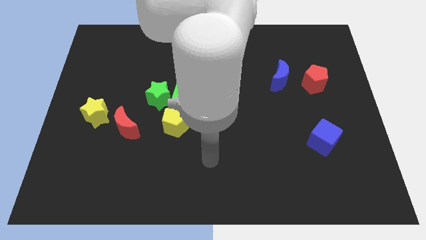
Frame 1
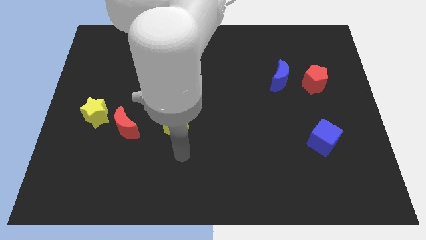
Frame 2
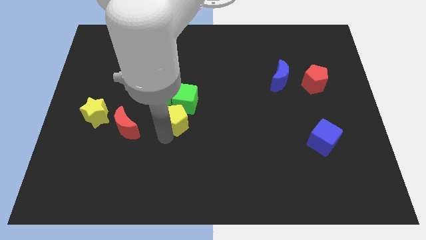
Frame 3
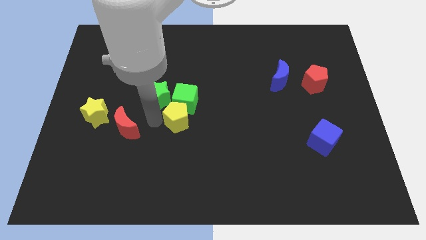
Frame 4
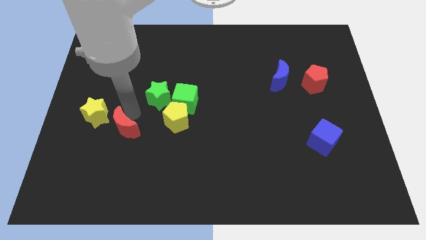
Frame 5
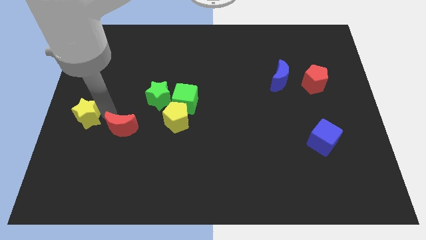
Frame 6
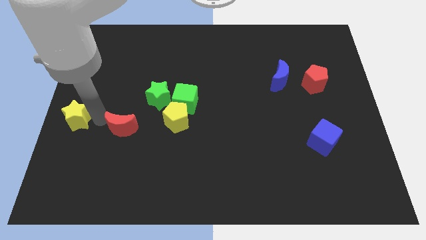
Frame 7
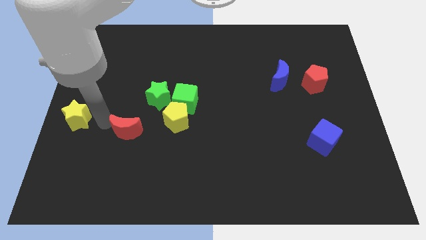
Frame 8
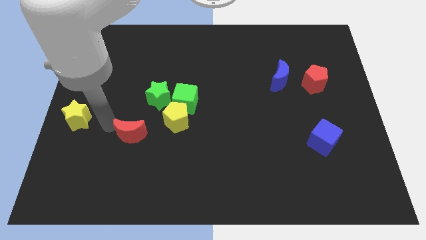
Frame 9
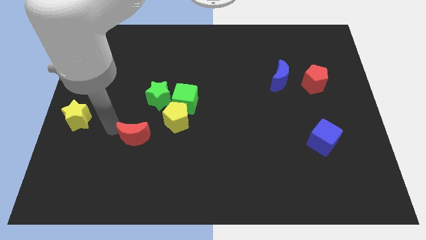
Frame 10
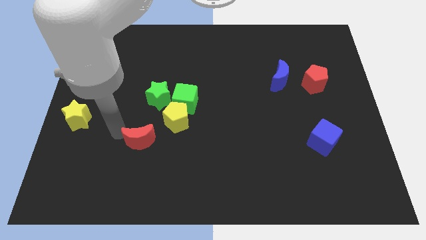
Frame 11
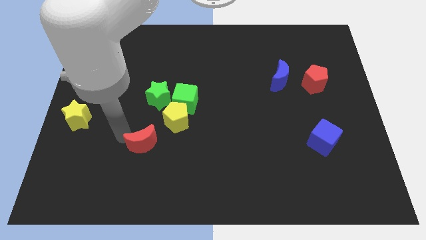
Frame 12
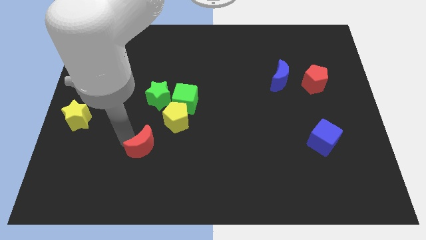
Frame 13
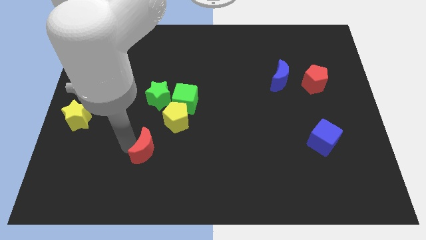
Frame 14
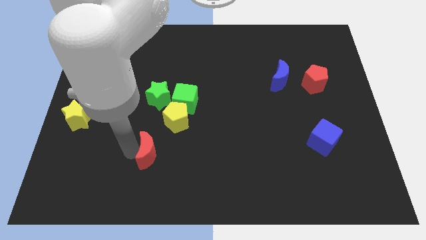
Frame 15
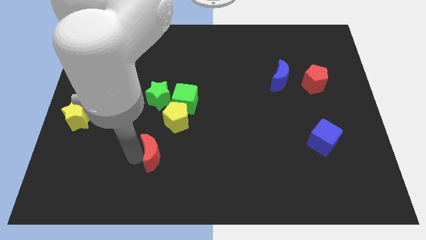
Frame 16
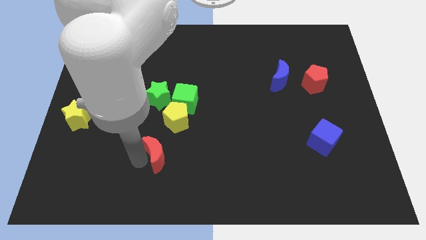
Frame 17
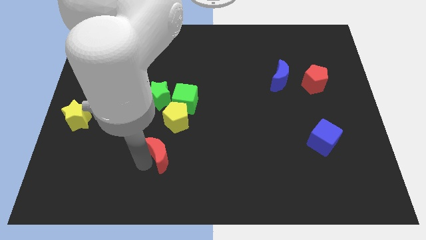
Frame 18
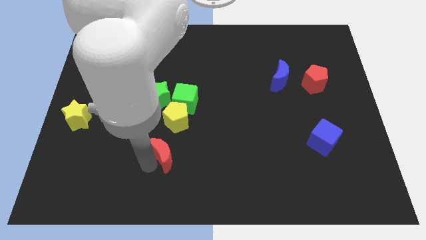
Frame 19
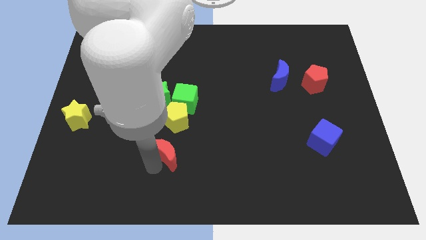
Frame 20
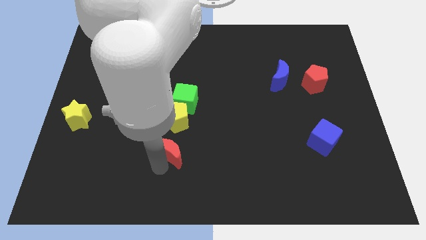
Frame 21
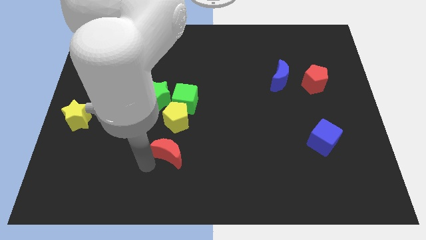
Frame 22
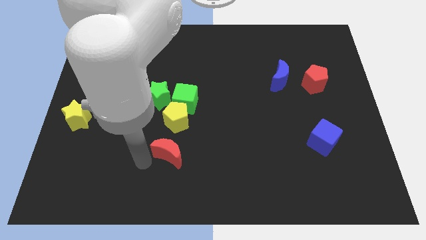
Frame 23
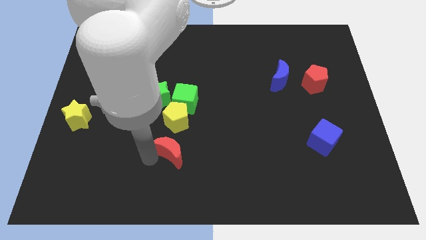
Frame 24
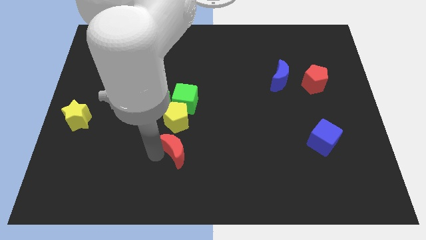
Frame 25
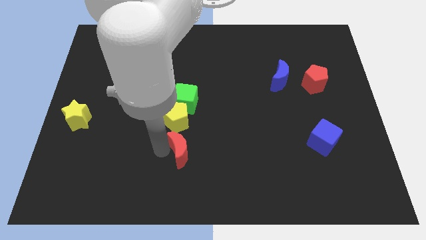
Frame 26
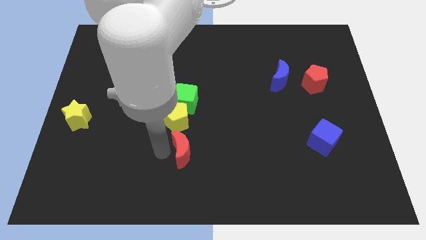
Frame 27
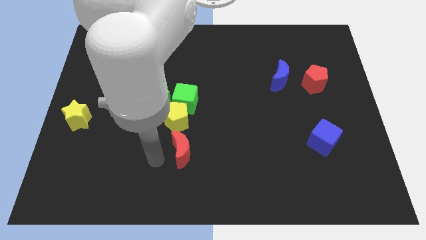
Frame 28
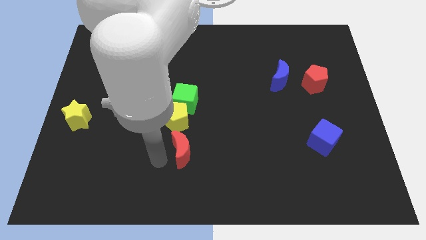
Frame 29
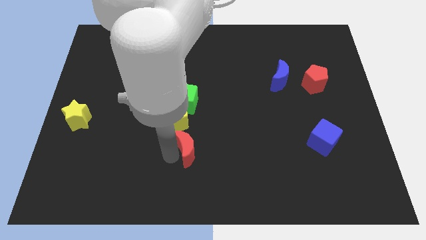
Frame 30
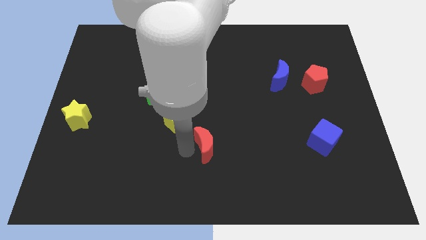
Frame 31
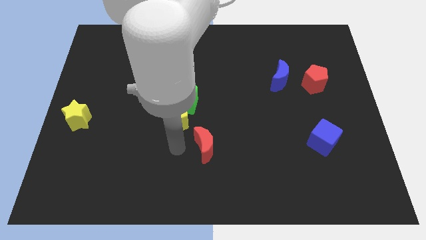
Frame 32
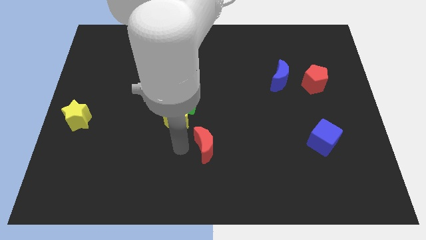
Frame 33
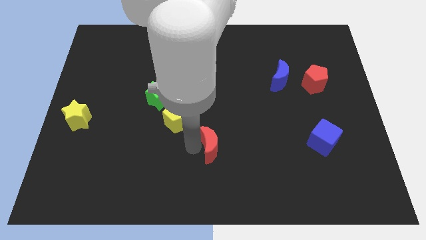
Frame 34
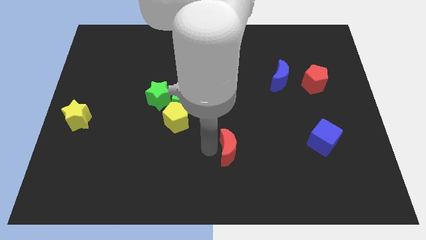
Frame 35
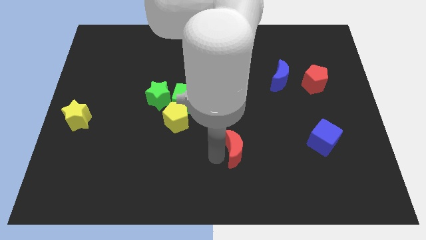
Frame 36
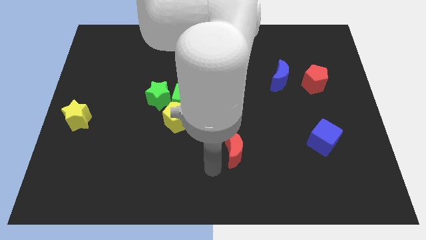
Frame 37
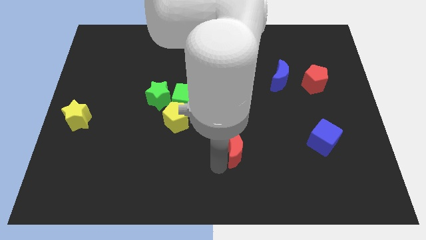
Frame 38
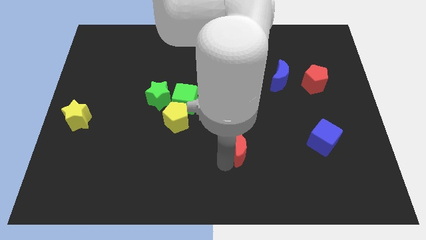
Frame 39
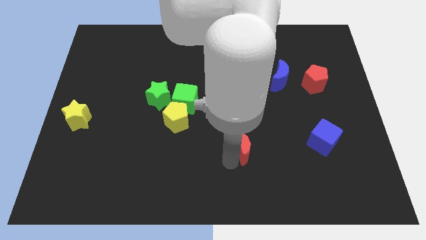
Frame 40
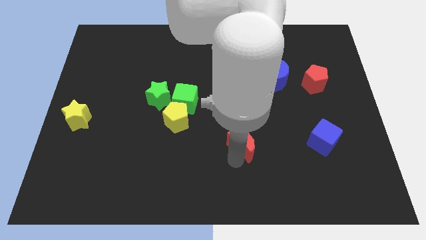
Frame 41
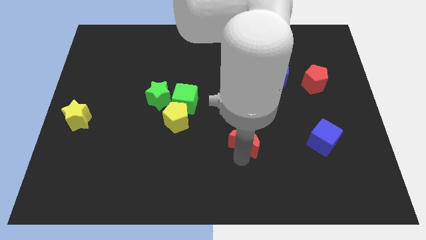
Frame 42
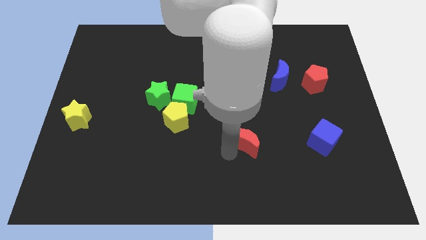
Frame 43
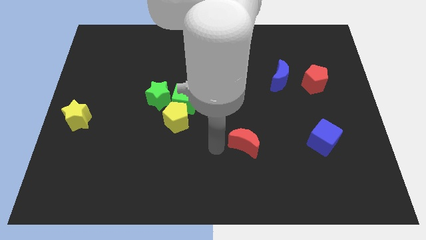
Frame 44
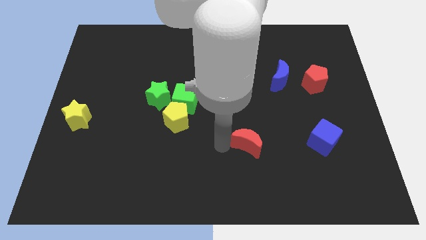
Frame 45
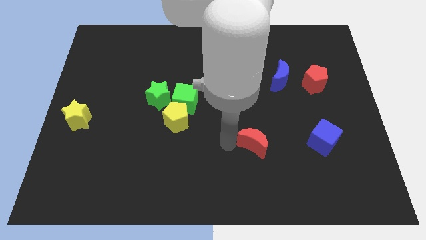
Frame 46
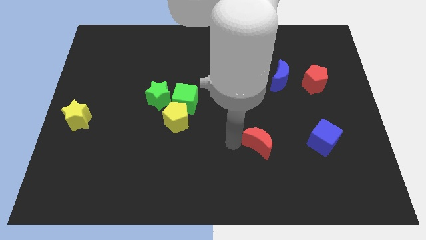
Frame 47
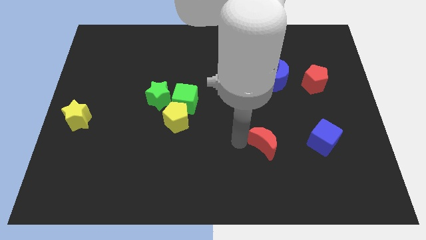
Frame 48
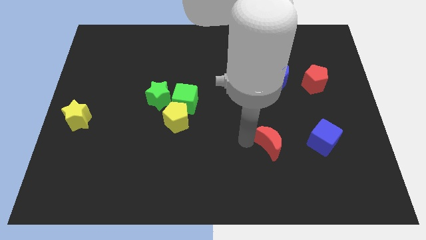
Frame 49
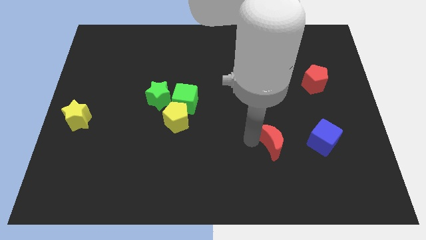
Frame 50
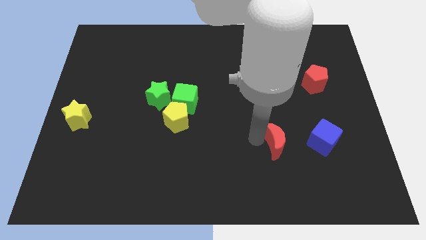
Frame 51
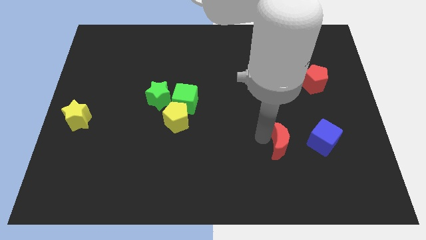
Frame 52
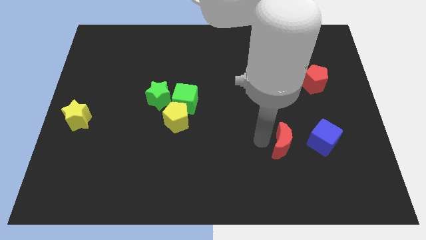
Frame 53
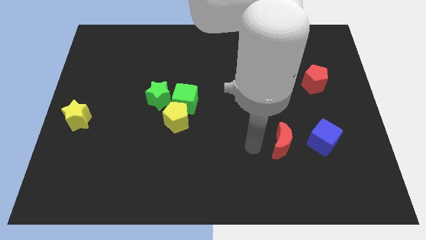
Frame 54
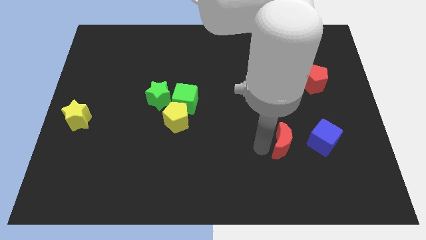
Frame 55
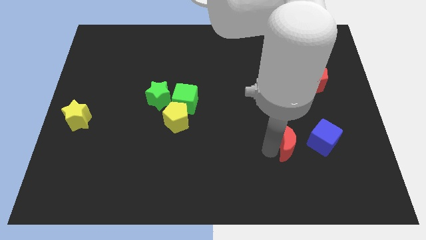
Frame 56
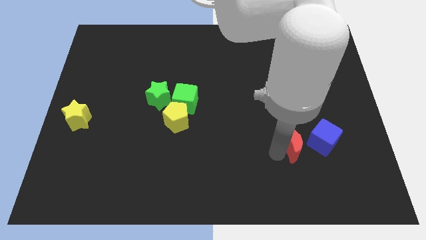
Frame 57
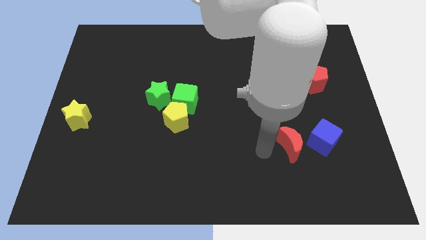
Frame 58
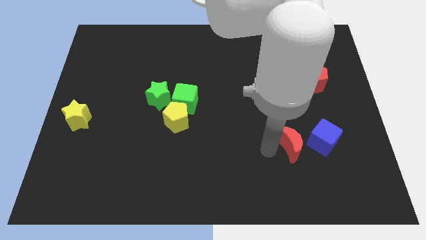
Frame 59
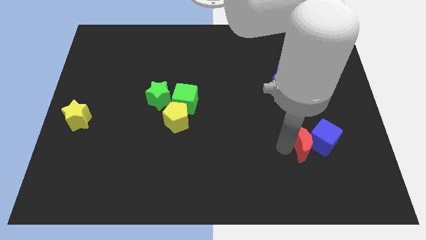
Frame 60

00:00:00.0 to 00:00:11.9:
put the red moon close to the blue cube

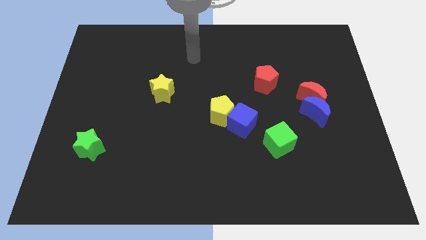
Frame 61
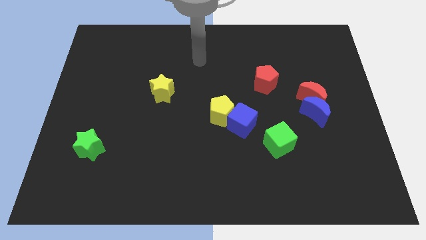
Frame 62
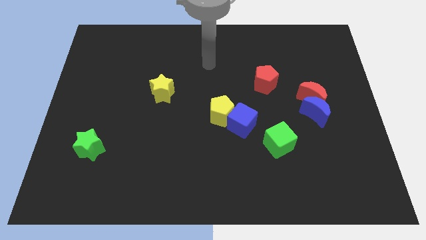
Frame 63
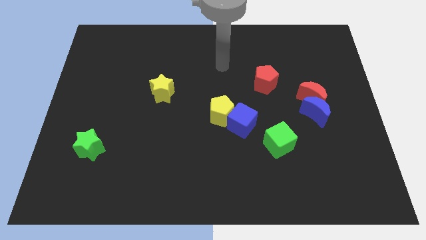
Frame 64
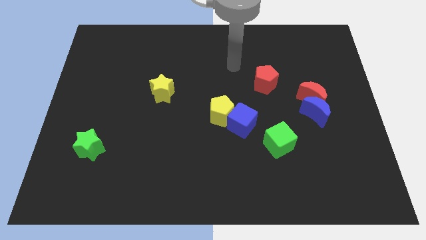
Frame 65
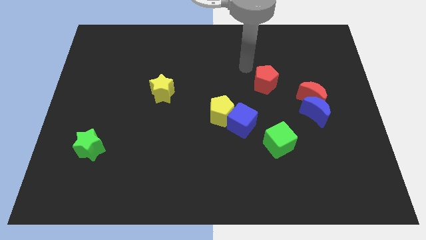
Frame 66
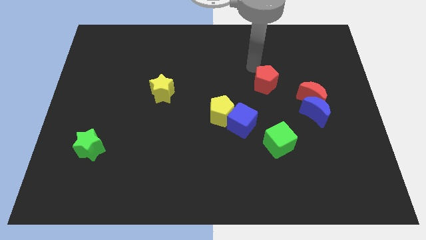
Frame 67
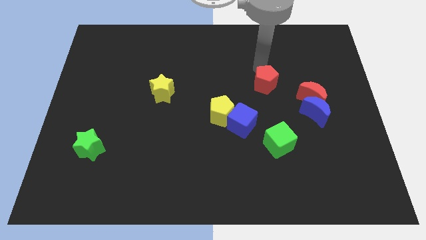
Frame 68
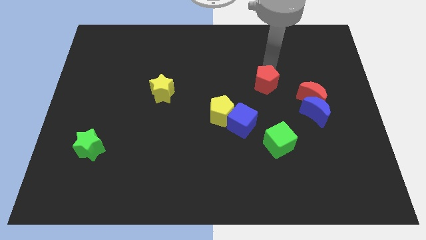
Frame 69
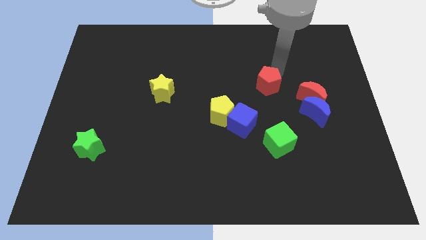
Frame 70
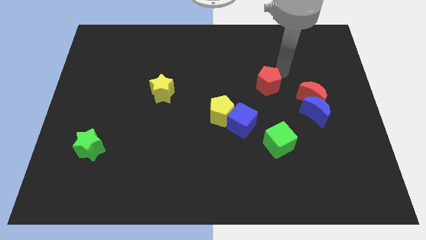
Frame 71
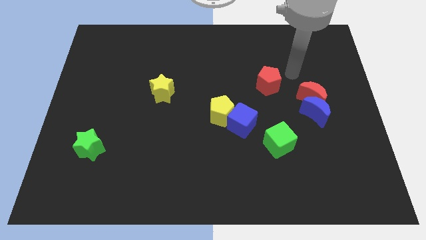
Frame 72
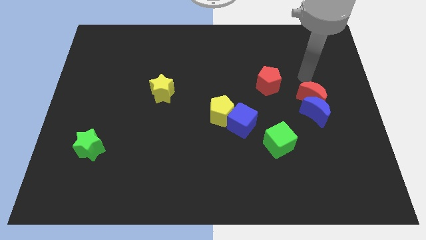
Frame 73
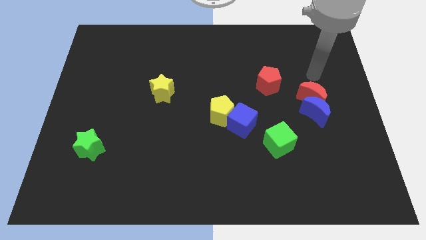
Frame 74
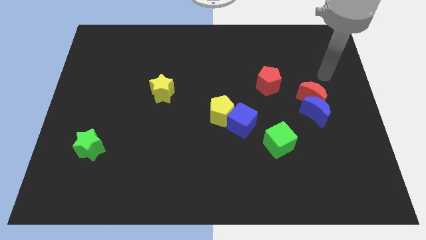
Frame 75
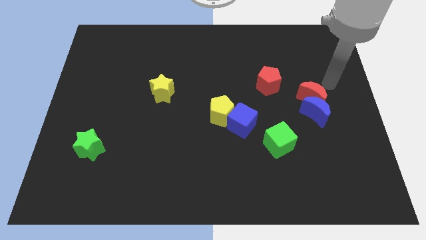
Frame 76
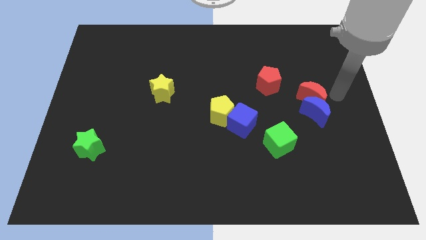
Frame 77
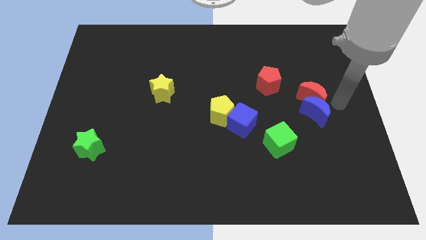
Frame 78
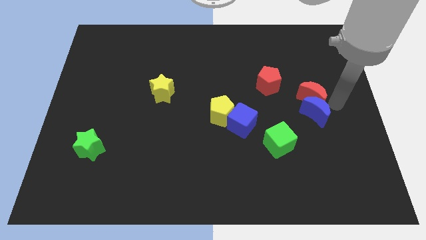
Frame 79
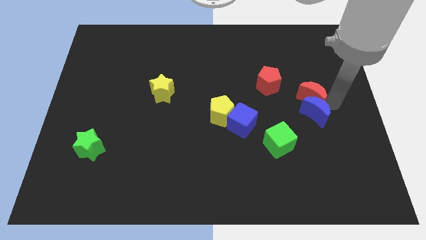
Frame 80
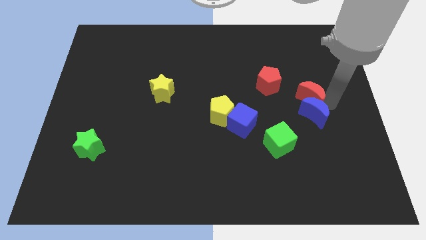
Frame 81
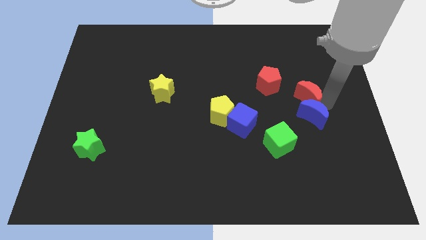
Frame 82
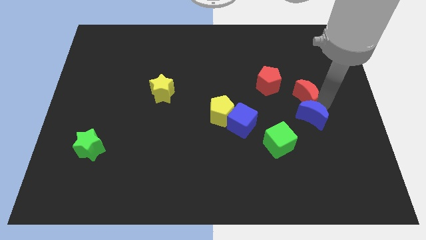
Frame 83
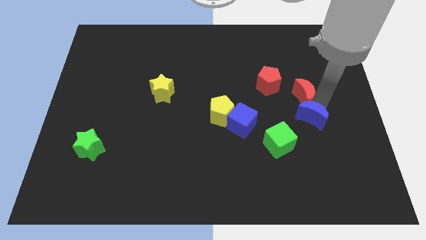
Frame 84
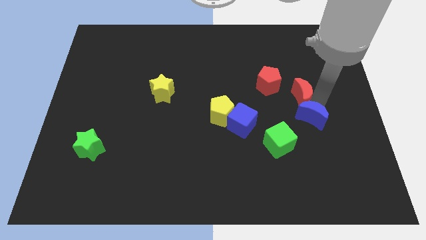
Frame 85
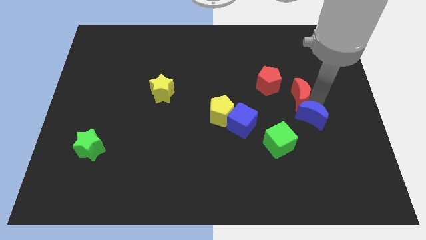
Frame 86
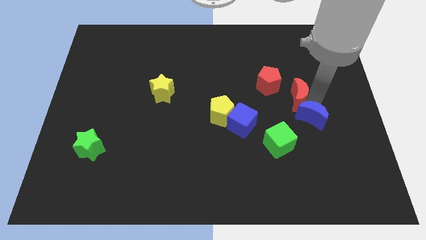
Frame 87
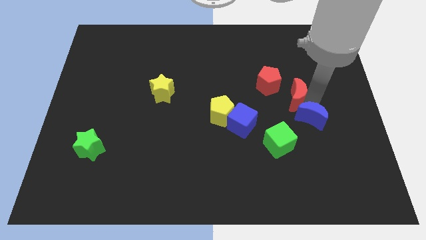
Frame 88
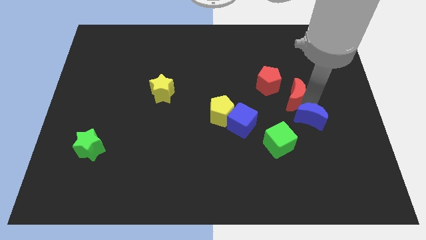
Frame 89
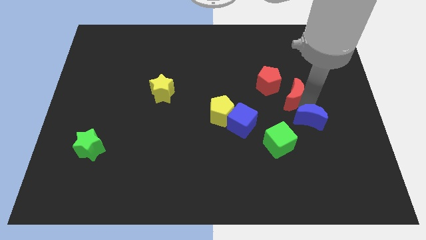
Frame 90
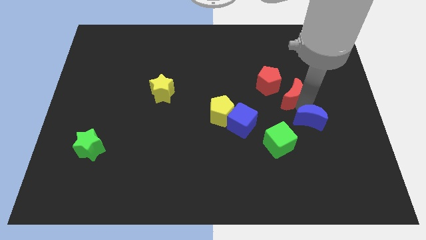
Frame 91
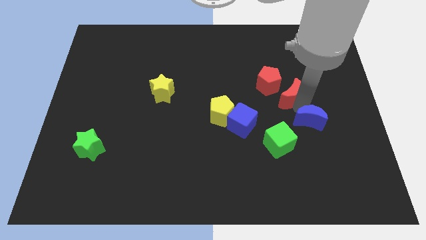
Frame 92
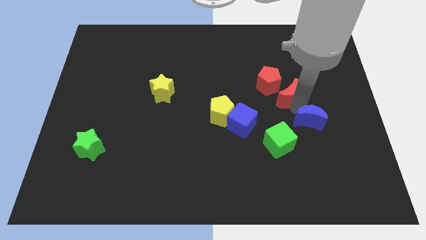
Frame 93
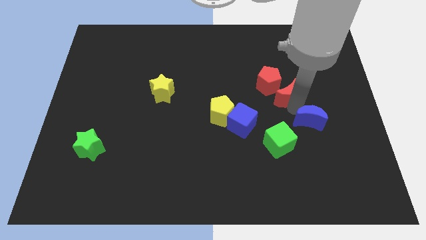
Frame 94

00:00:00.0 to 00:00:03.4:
slide the red moon towards the red pentagon
